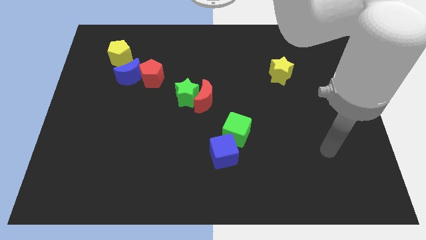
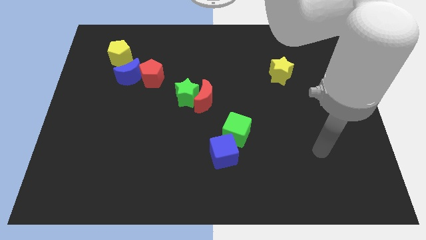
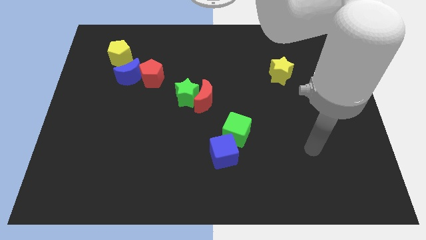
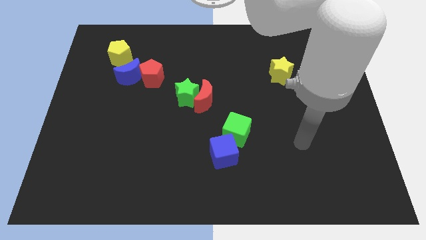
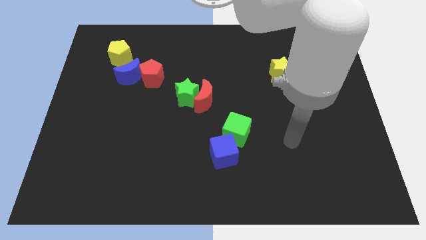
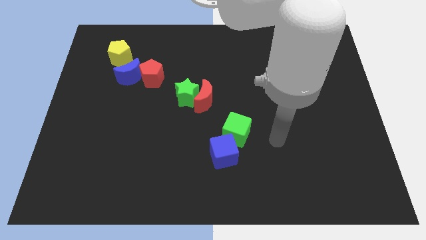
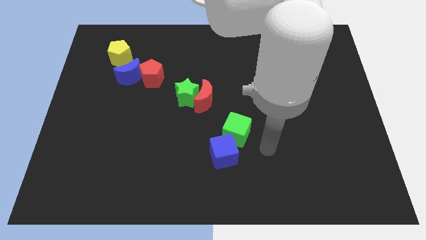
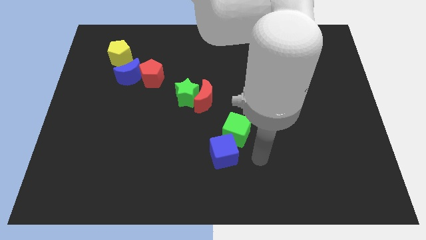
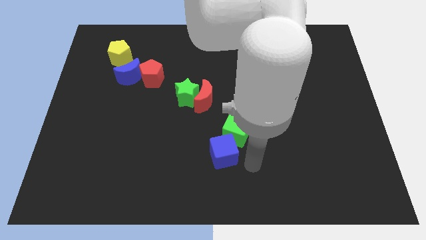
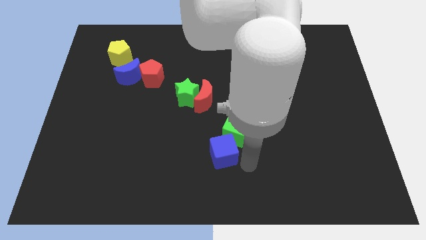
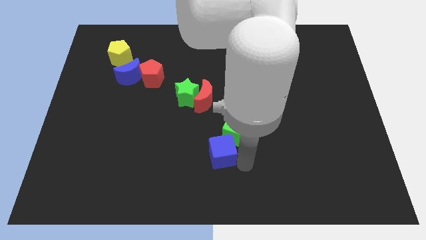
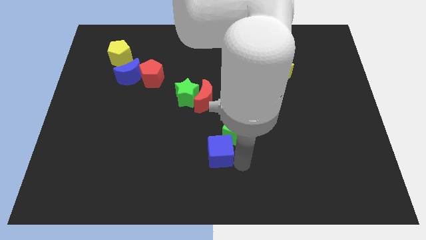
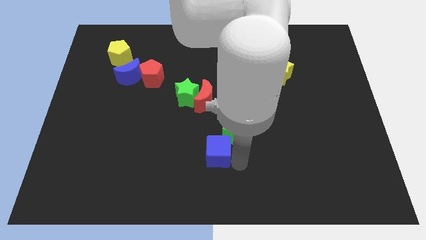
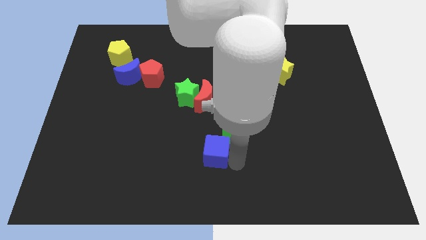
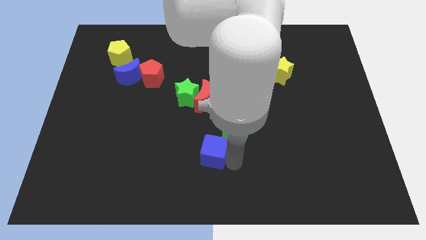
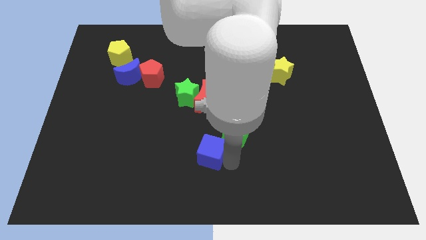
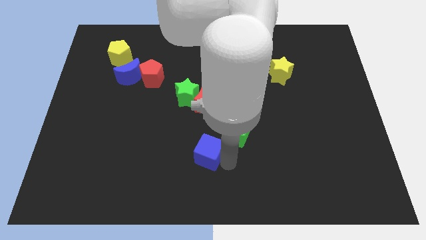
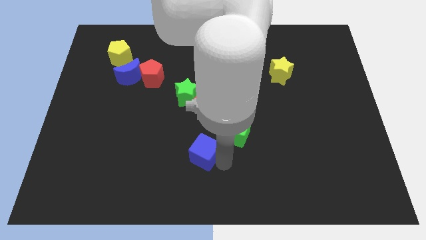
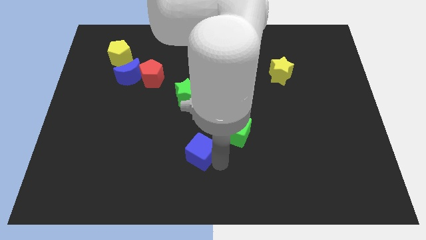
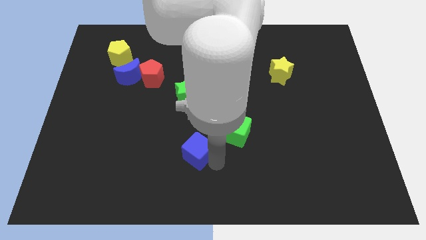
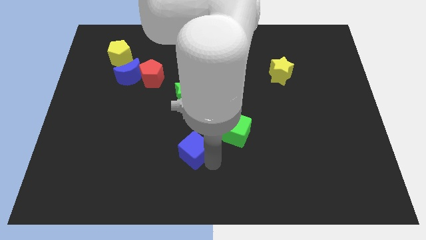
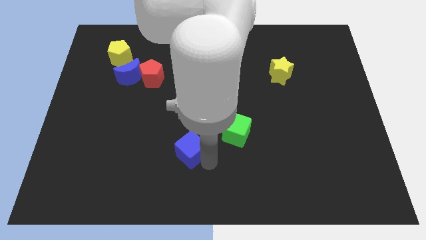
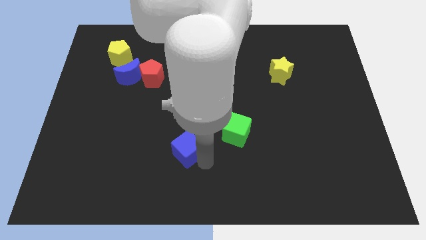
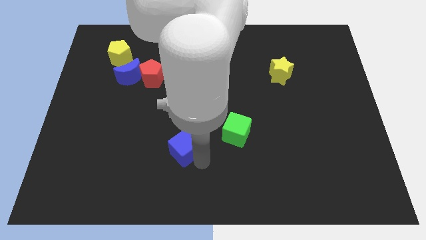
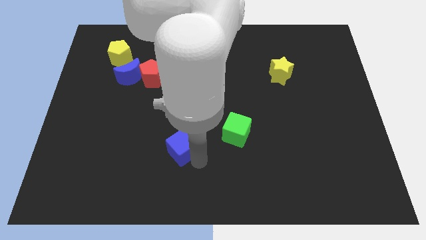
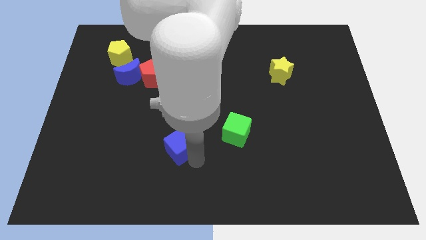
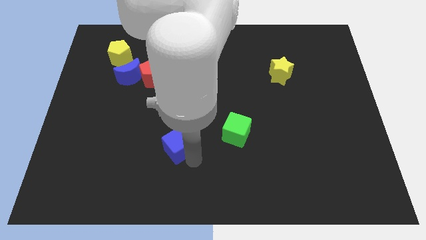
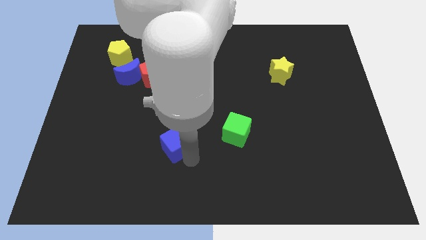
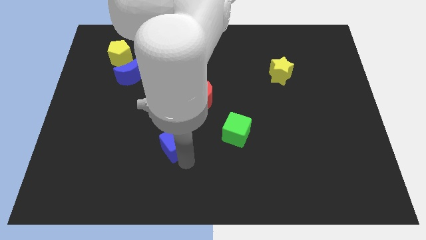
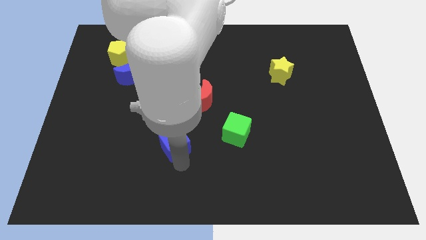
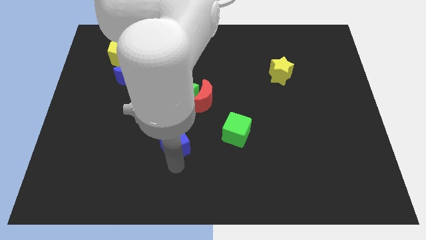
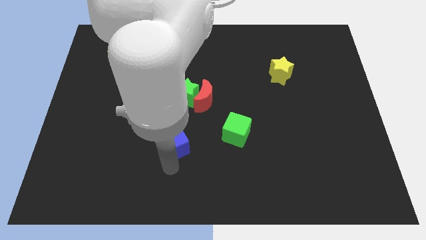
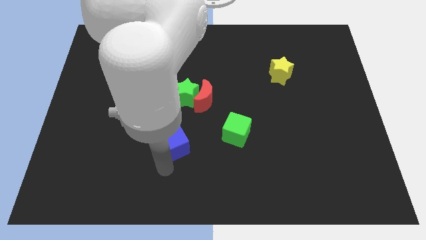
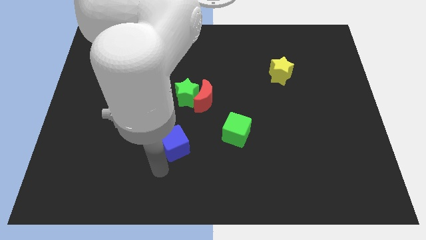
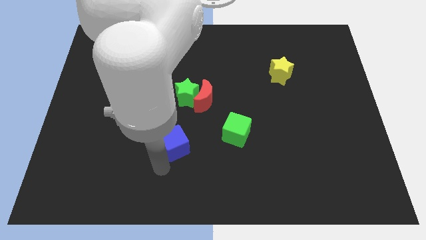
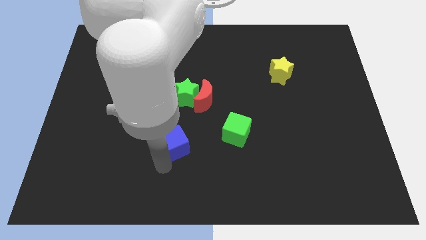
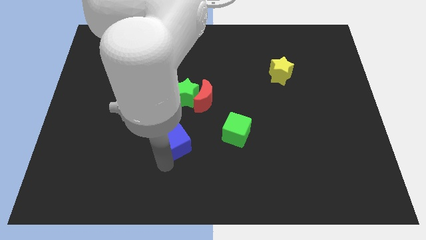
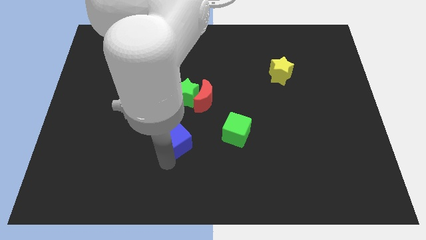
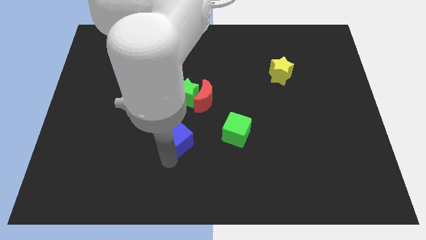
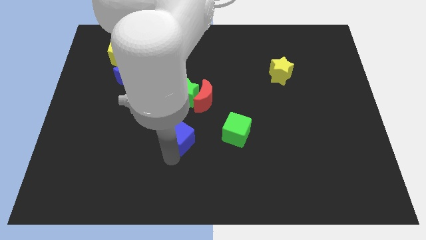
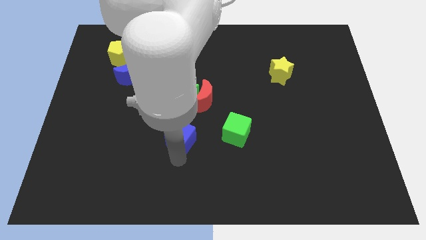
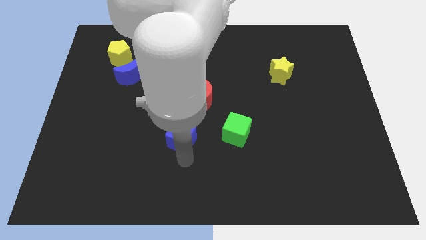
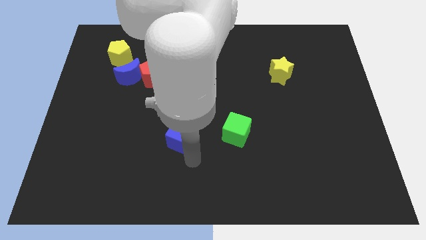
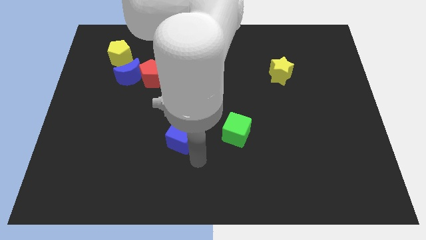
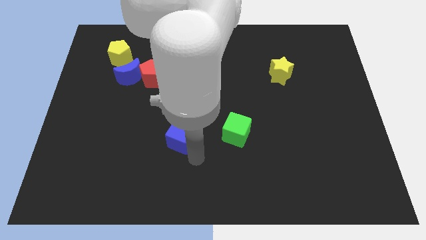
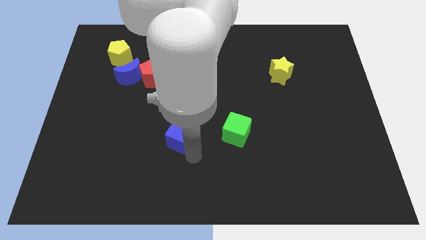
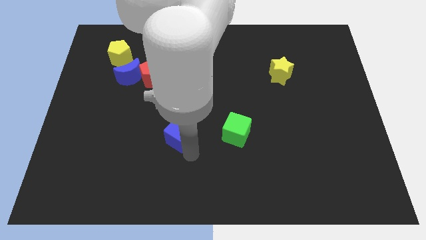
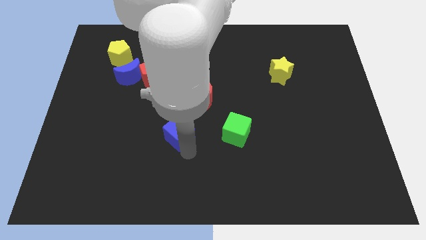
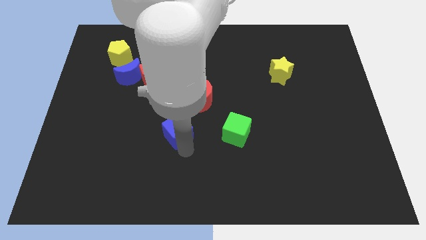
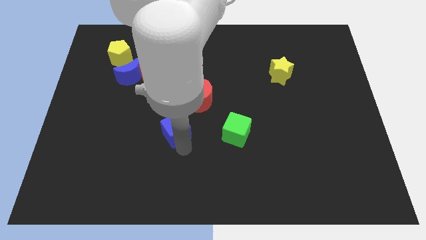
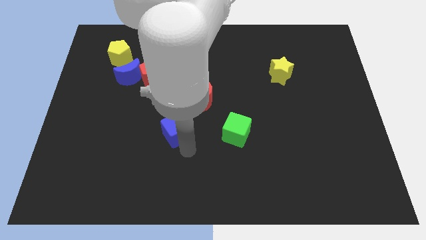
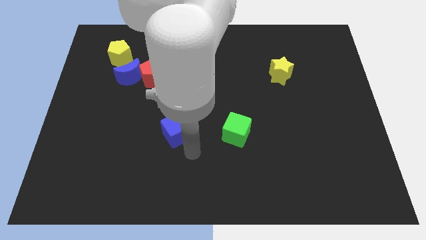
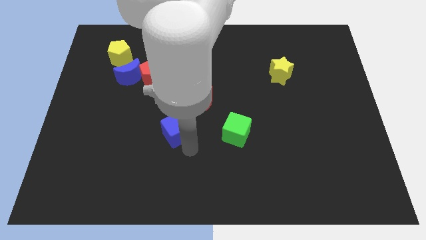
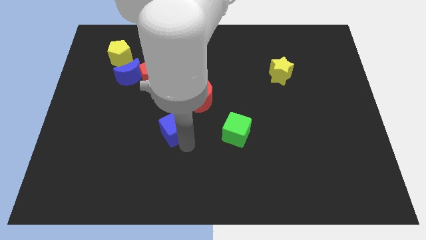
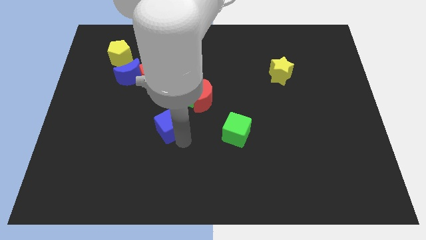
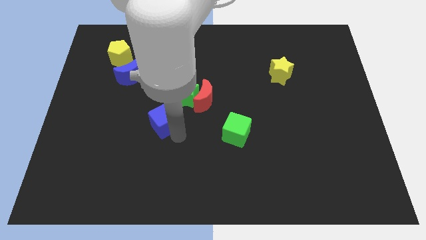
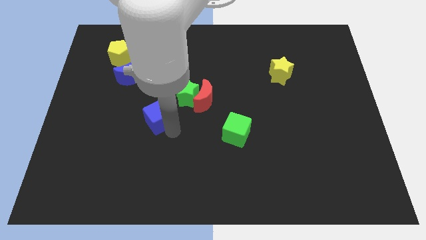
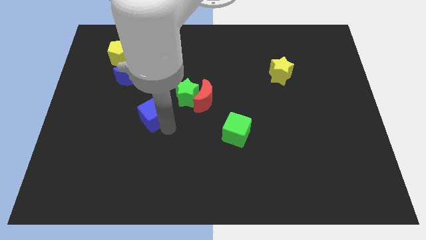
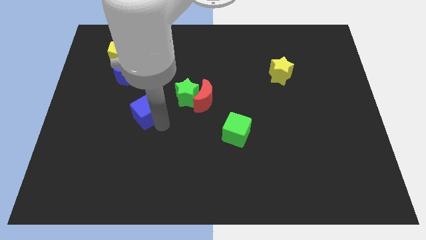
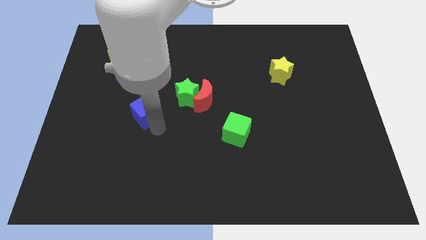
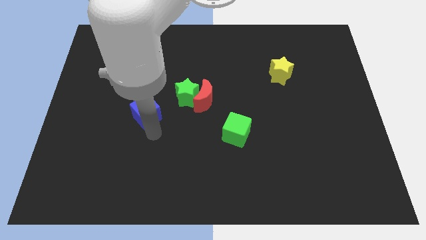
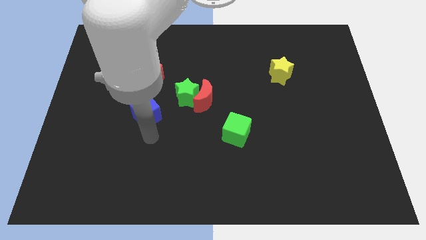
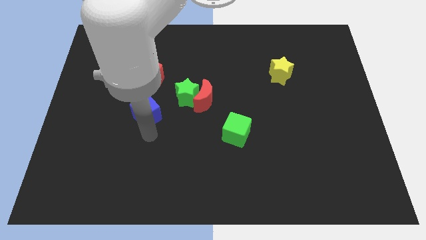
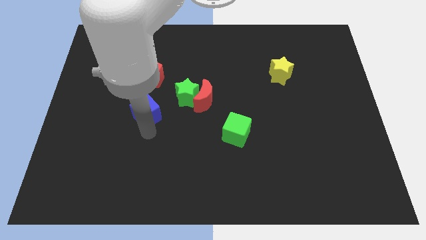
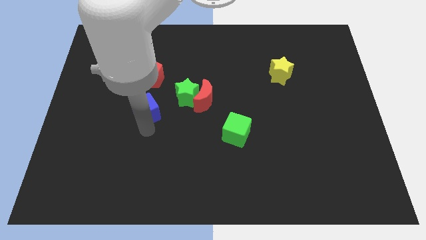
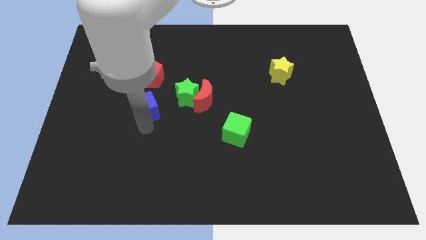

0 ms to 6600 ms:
move the blue cube to the left of the green star

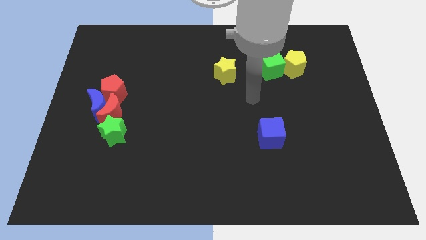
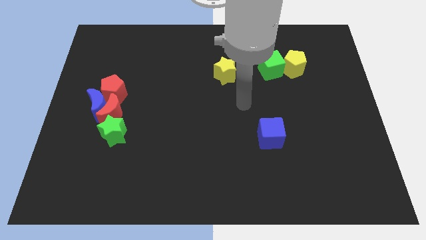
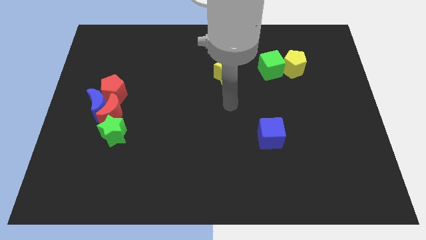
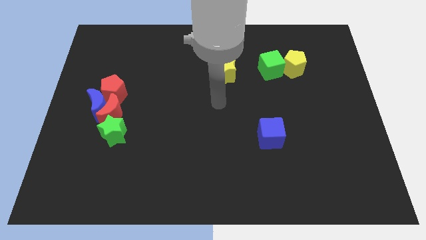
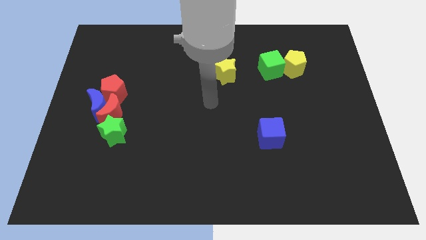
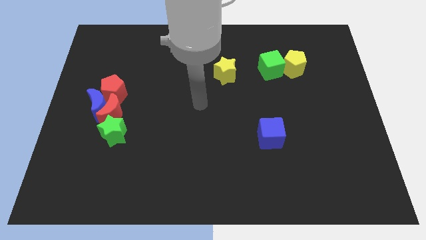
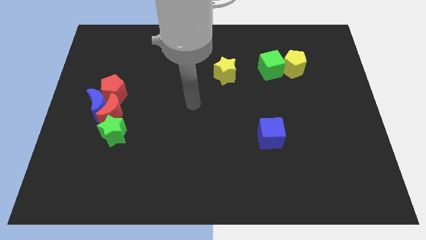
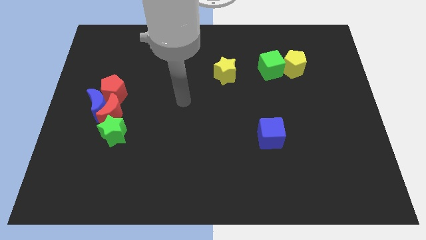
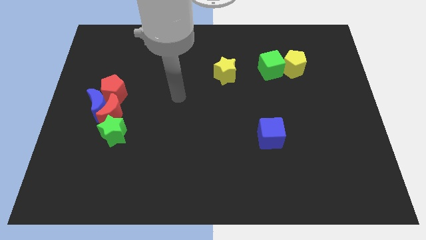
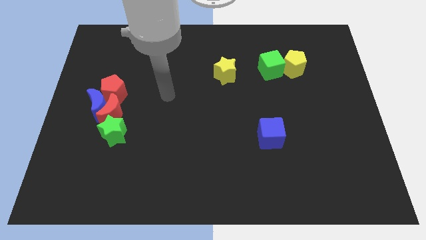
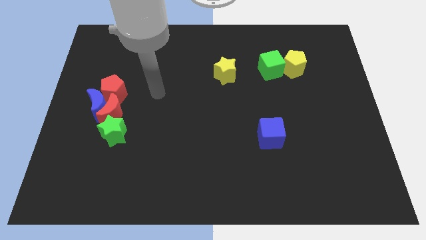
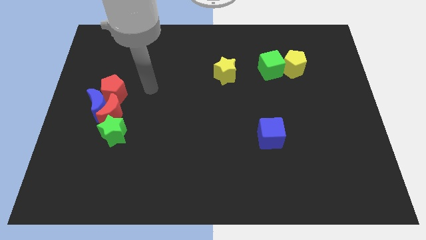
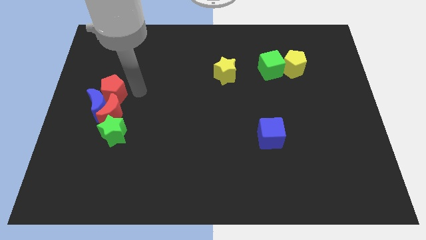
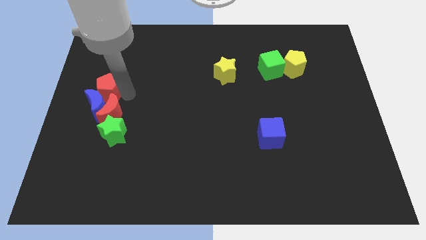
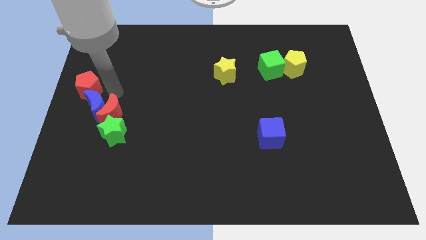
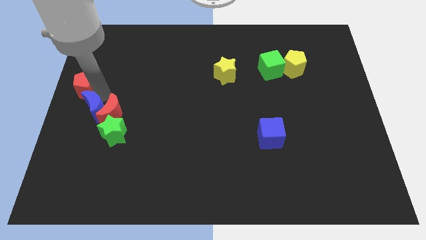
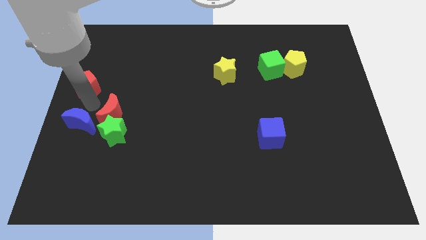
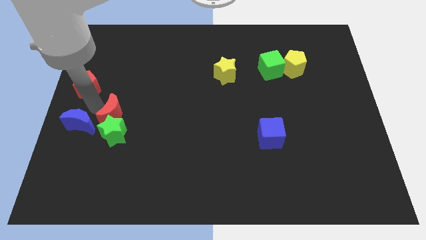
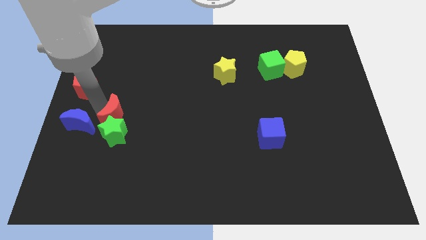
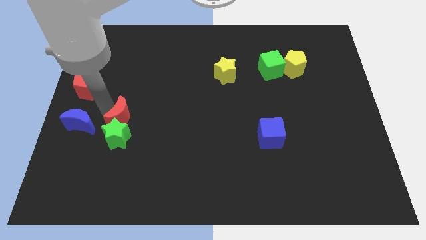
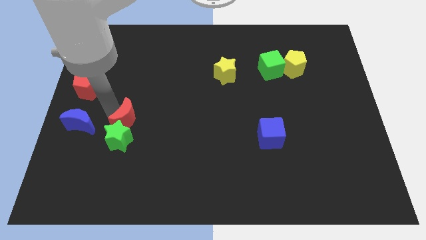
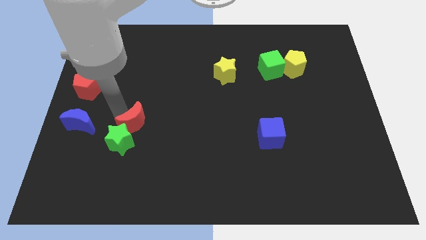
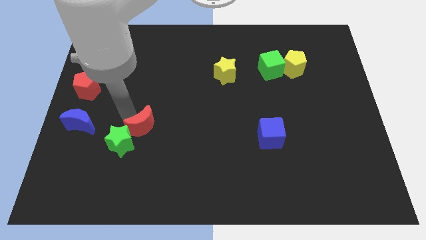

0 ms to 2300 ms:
put the red moon to the right of the green star
